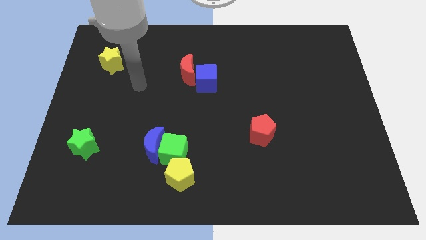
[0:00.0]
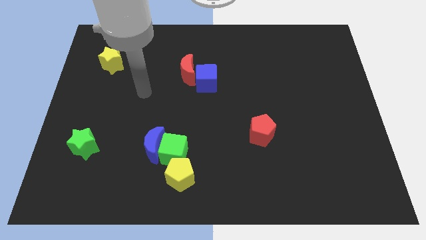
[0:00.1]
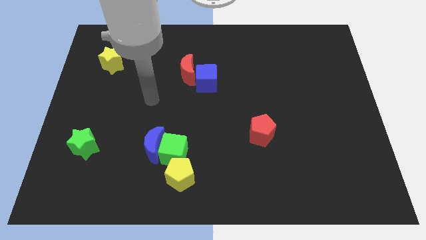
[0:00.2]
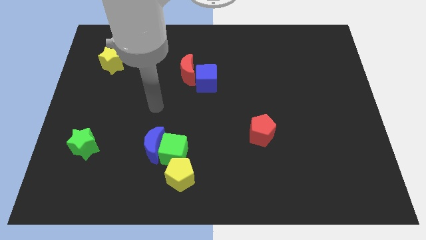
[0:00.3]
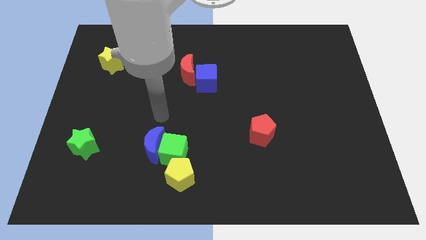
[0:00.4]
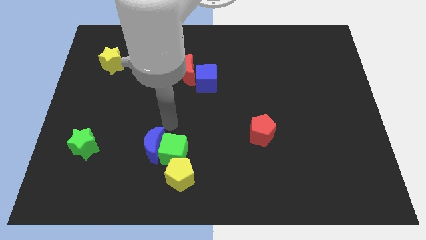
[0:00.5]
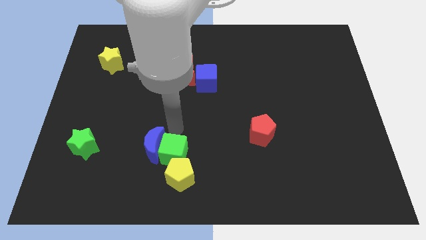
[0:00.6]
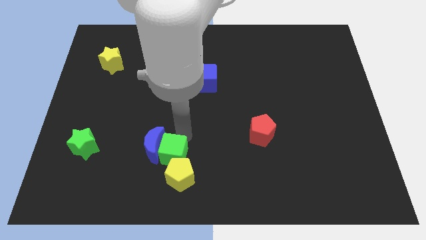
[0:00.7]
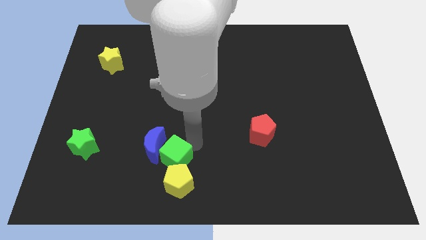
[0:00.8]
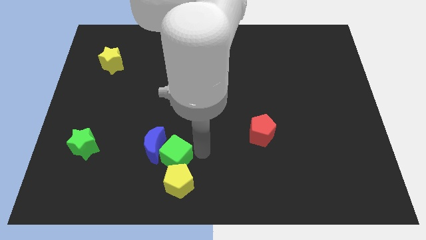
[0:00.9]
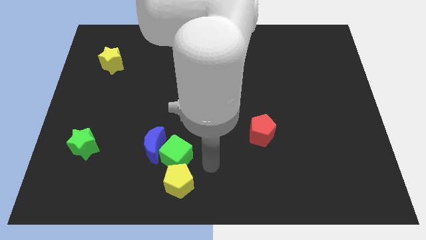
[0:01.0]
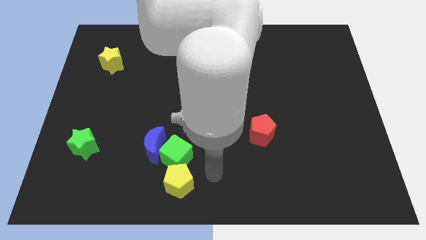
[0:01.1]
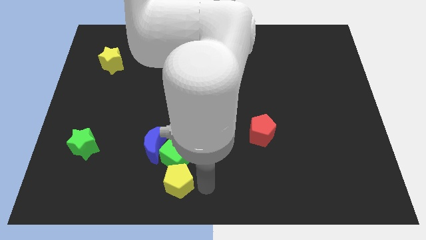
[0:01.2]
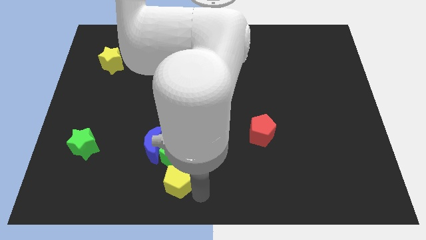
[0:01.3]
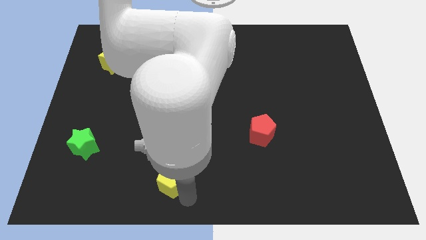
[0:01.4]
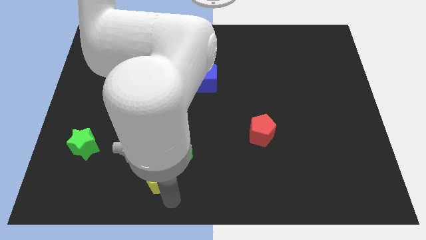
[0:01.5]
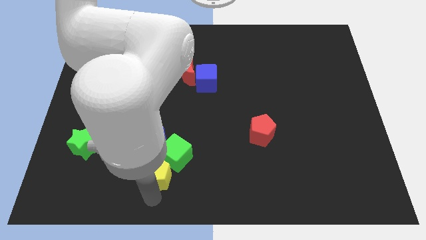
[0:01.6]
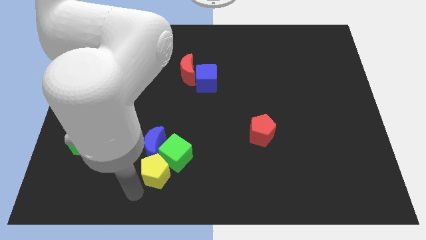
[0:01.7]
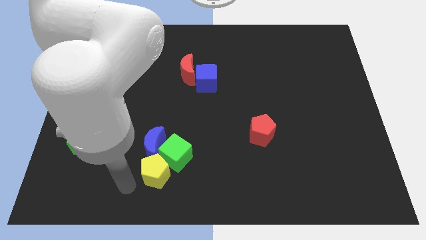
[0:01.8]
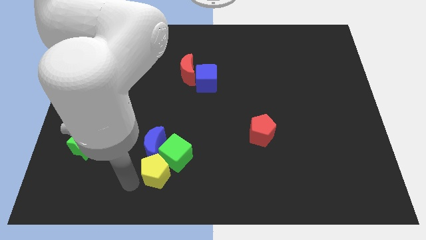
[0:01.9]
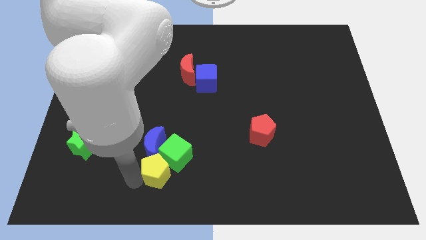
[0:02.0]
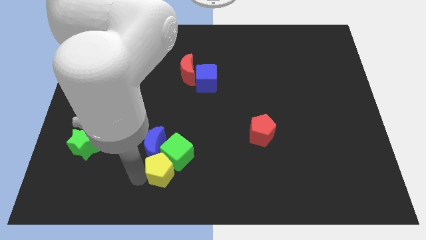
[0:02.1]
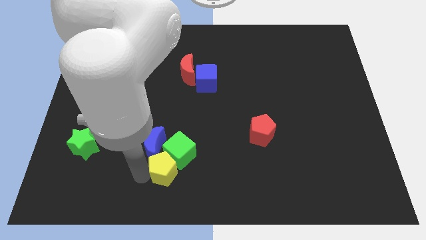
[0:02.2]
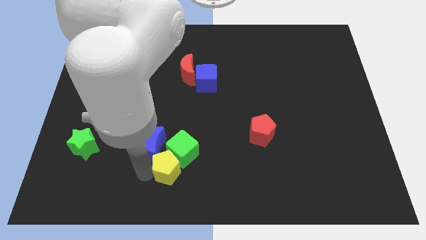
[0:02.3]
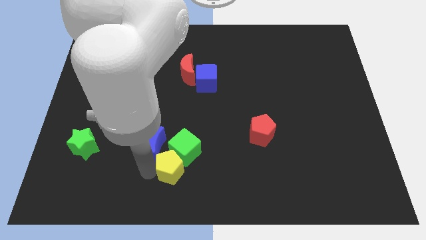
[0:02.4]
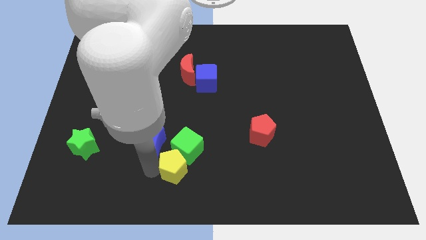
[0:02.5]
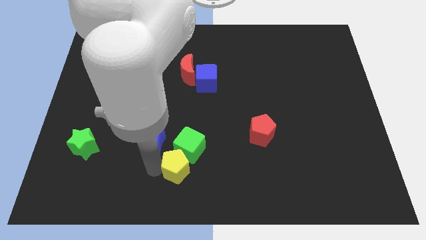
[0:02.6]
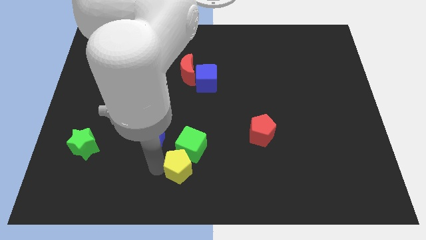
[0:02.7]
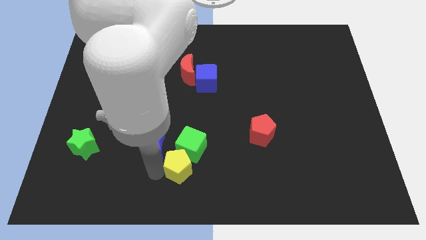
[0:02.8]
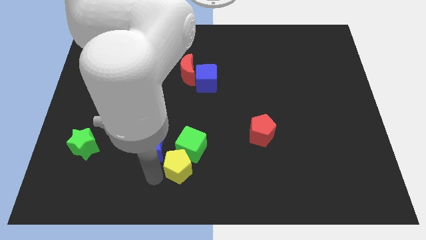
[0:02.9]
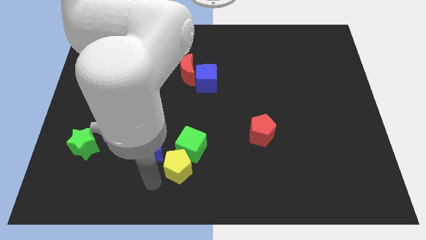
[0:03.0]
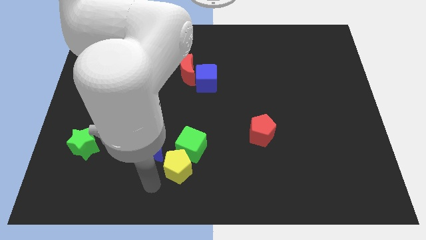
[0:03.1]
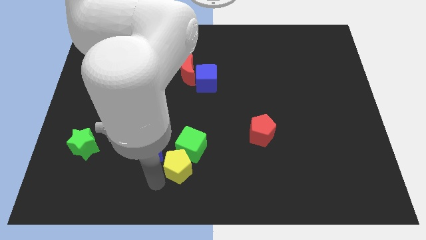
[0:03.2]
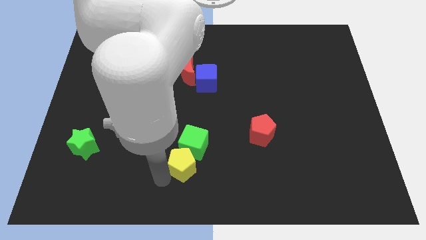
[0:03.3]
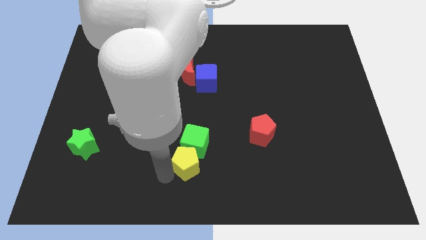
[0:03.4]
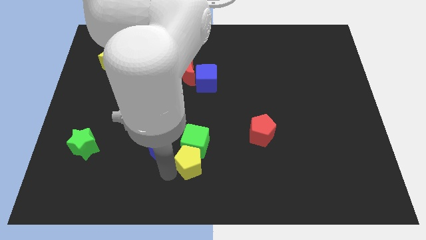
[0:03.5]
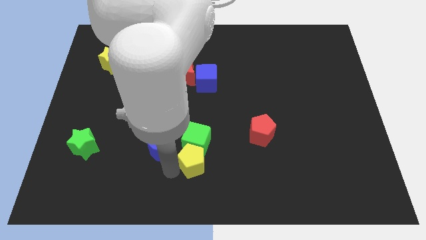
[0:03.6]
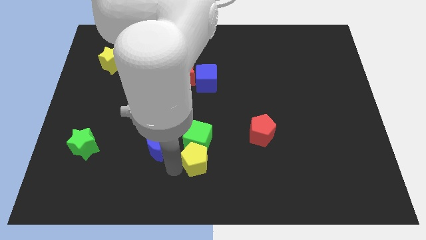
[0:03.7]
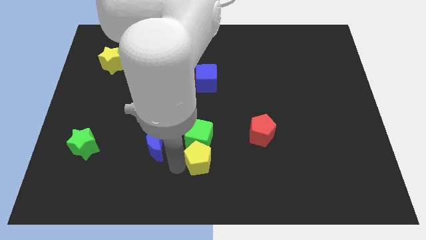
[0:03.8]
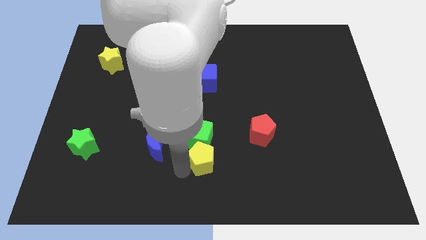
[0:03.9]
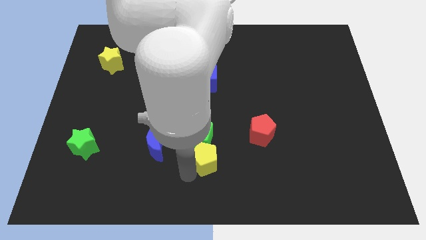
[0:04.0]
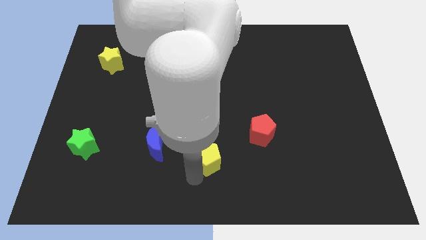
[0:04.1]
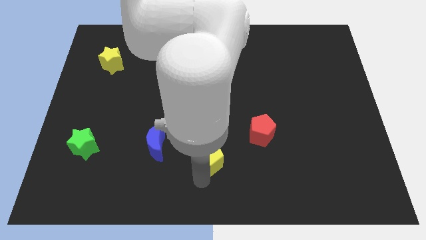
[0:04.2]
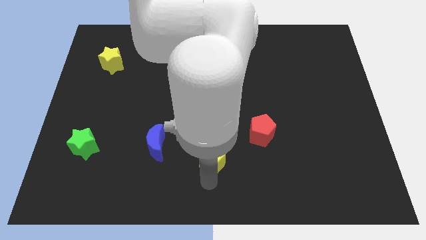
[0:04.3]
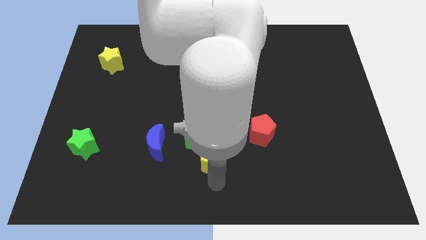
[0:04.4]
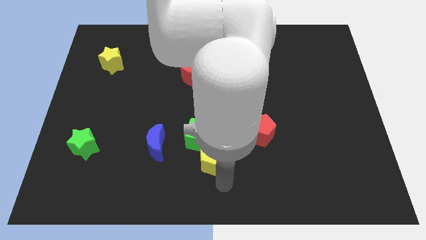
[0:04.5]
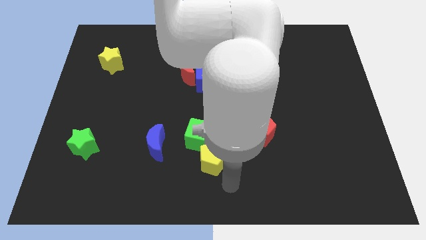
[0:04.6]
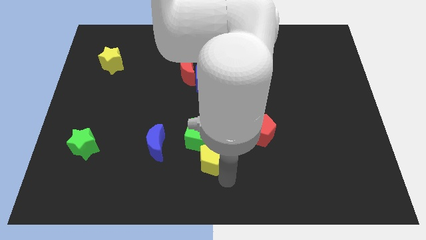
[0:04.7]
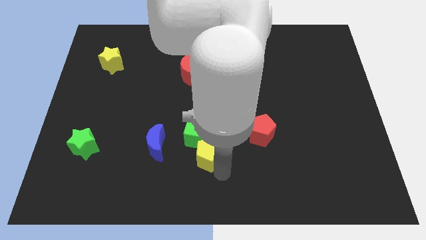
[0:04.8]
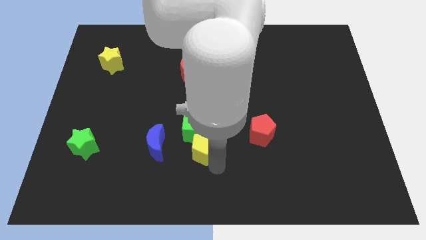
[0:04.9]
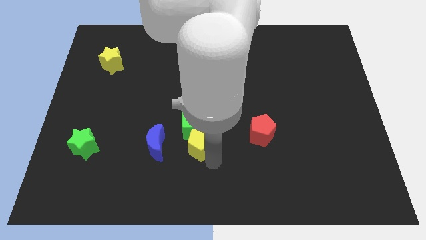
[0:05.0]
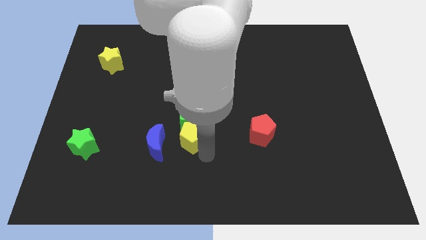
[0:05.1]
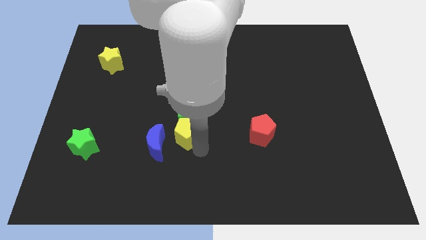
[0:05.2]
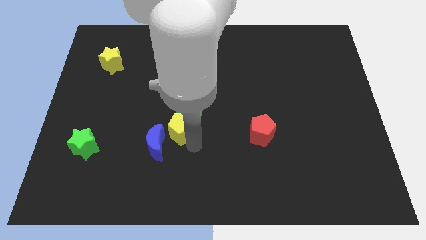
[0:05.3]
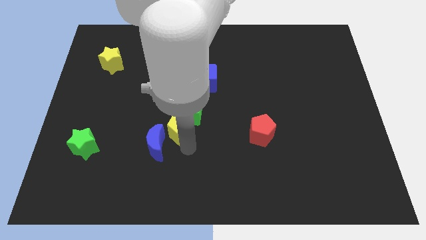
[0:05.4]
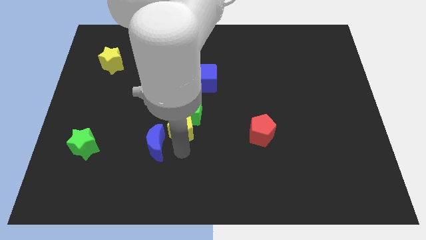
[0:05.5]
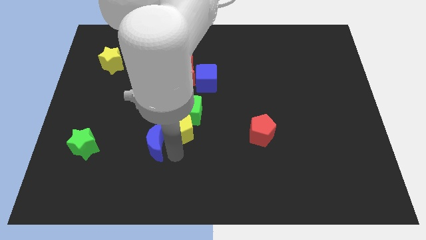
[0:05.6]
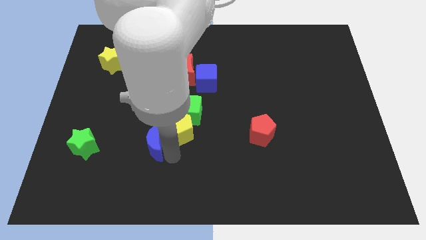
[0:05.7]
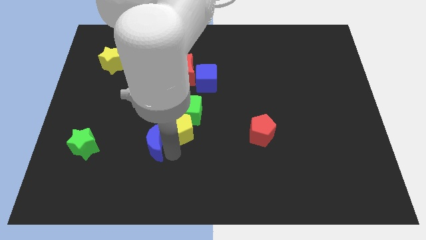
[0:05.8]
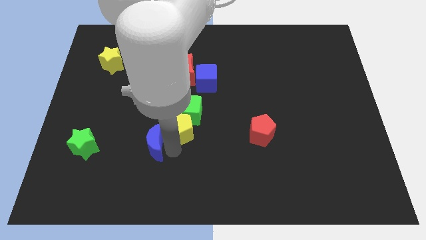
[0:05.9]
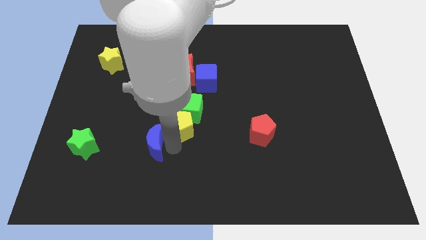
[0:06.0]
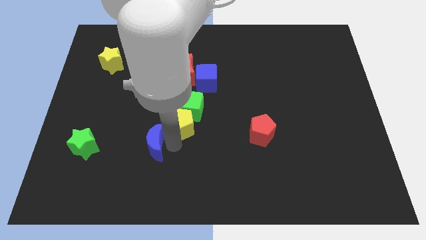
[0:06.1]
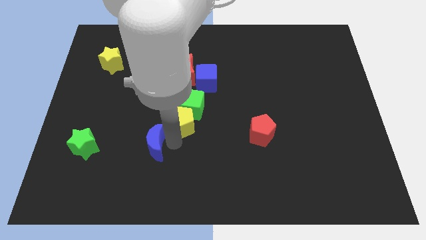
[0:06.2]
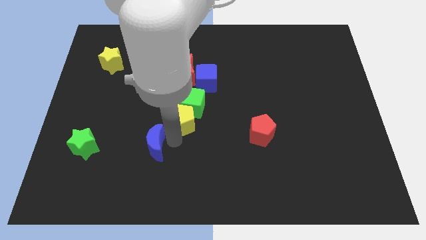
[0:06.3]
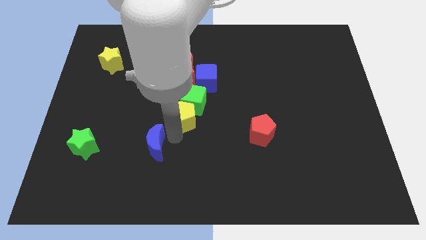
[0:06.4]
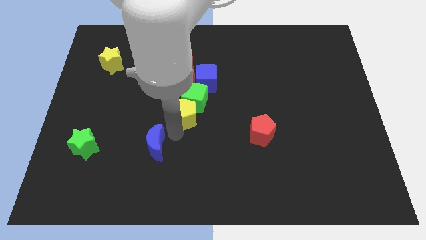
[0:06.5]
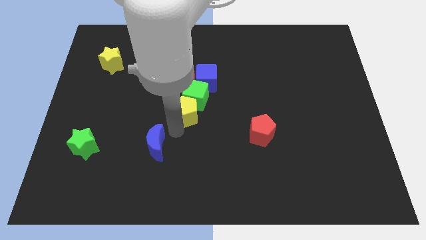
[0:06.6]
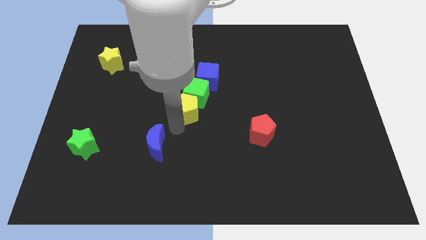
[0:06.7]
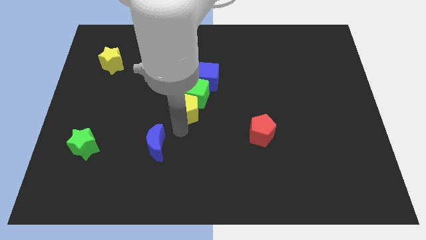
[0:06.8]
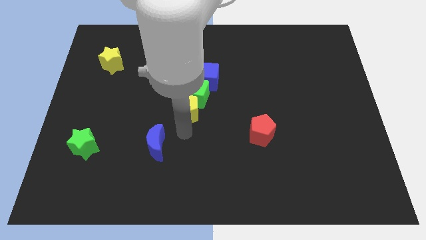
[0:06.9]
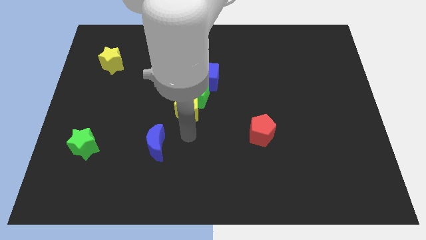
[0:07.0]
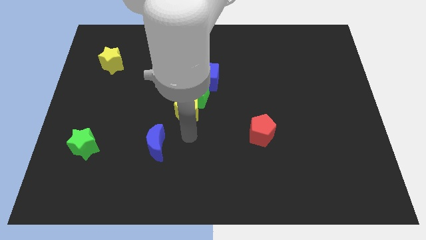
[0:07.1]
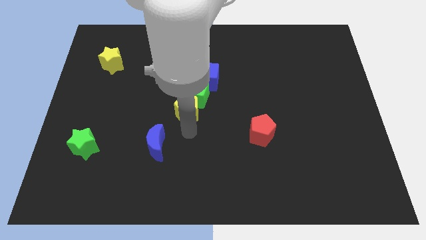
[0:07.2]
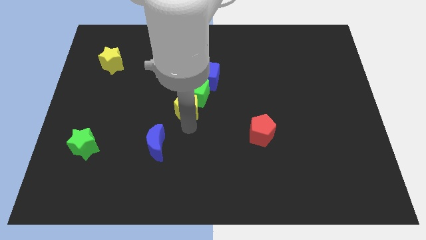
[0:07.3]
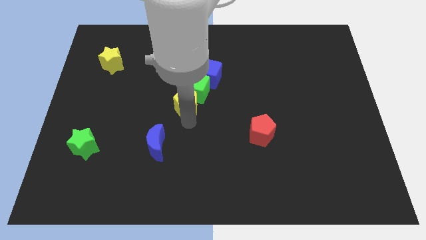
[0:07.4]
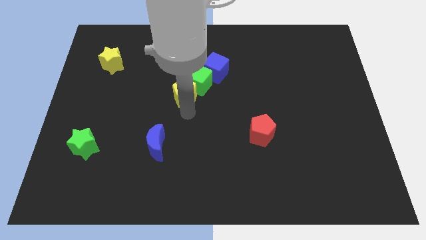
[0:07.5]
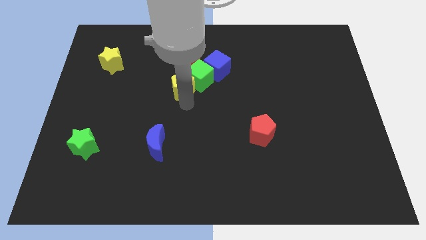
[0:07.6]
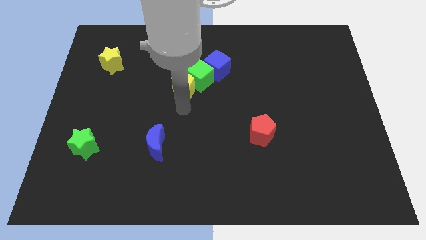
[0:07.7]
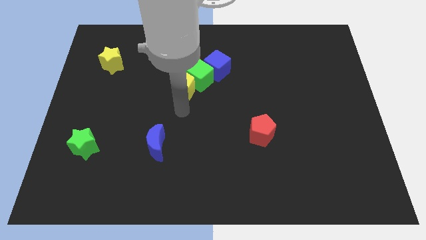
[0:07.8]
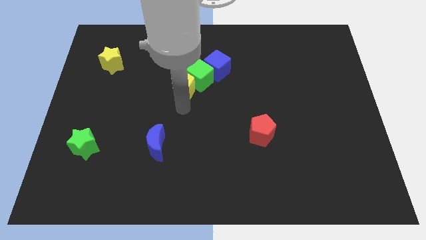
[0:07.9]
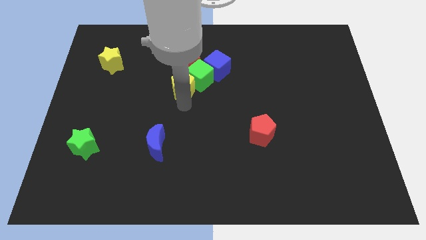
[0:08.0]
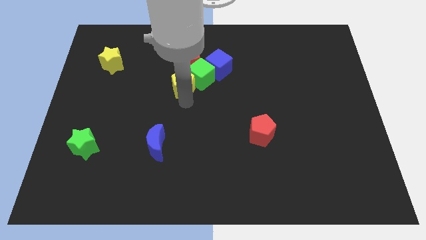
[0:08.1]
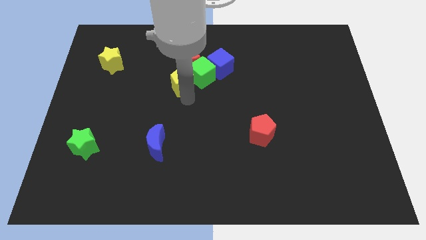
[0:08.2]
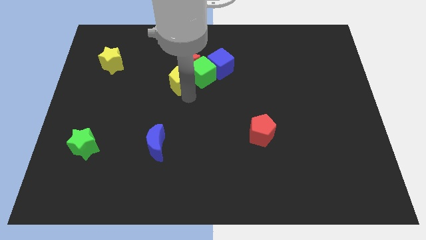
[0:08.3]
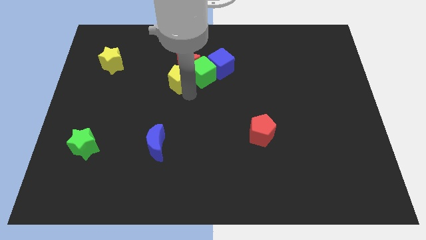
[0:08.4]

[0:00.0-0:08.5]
push the yellow pentagon next to the red moon
